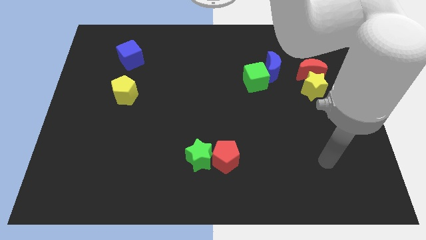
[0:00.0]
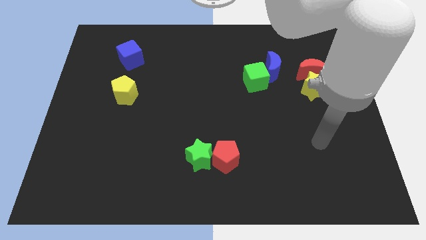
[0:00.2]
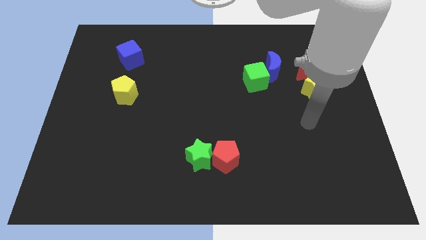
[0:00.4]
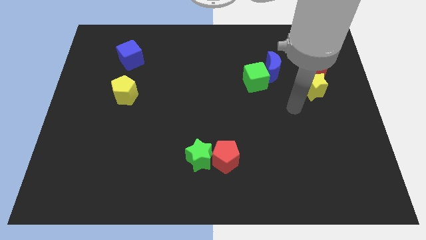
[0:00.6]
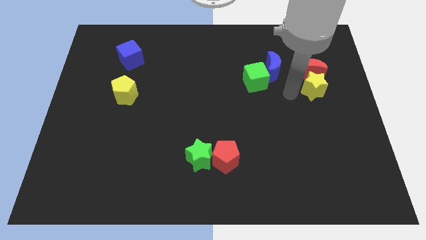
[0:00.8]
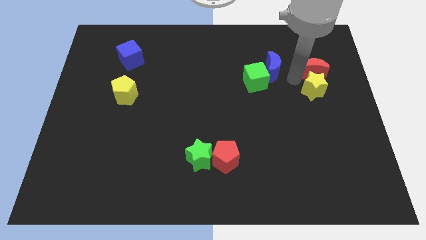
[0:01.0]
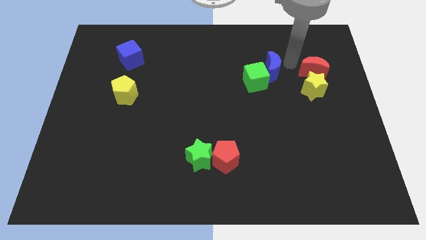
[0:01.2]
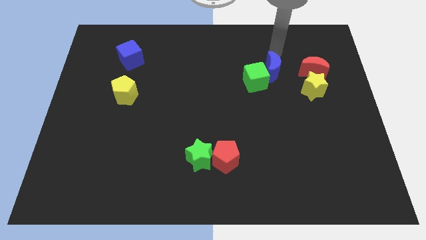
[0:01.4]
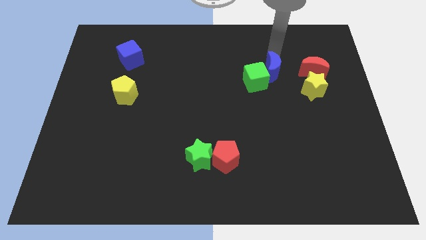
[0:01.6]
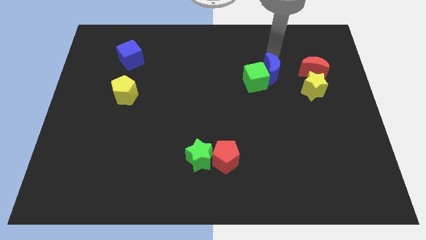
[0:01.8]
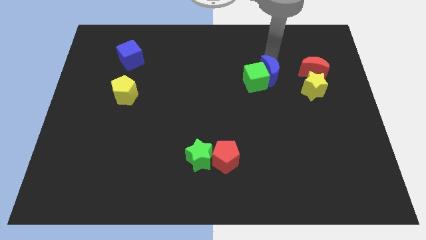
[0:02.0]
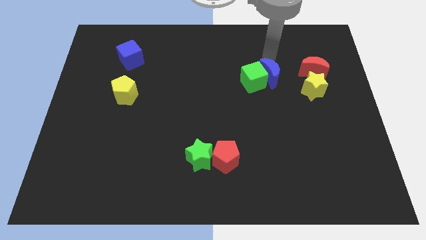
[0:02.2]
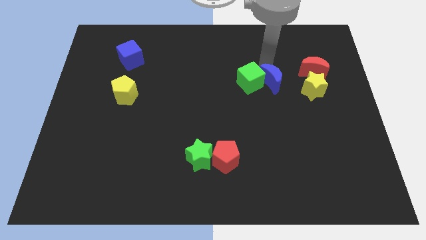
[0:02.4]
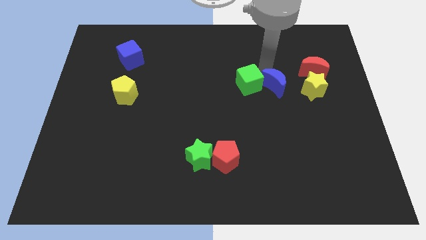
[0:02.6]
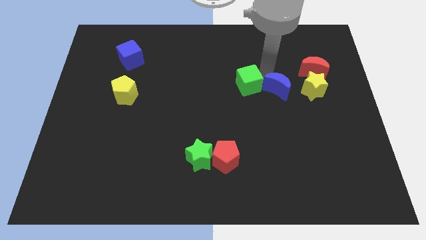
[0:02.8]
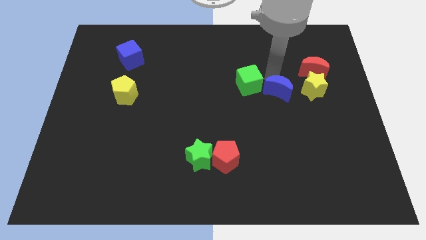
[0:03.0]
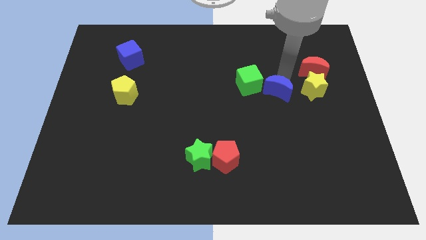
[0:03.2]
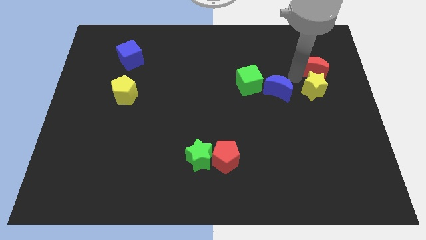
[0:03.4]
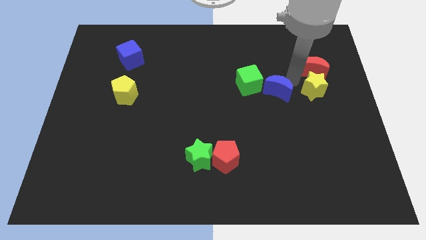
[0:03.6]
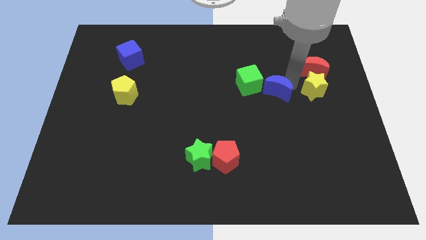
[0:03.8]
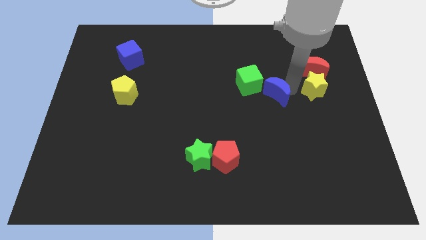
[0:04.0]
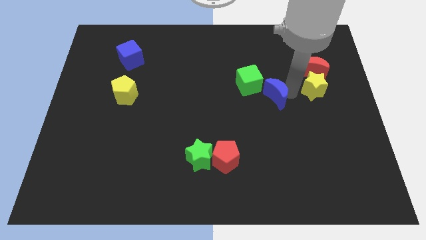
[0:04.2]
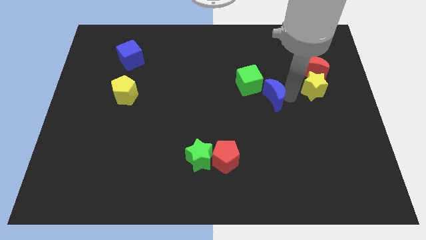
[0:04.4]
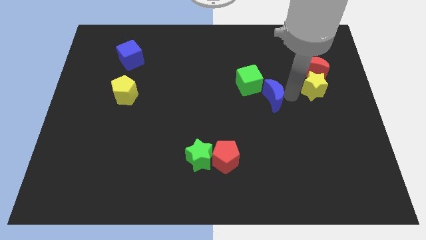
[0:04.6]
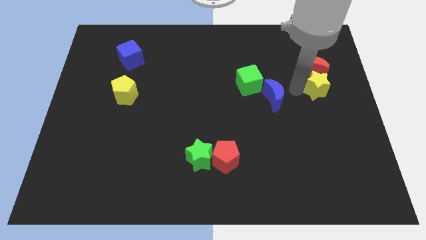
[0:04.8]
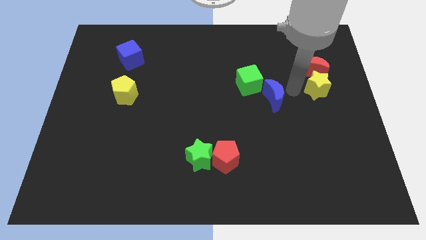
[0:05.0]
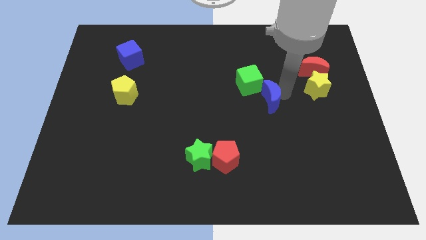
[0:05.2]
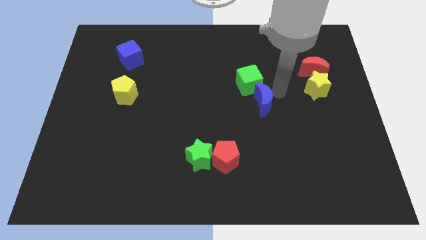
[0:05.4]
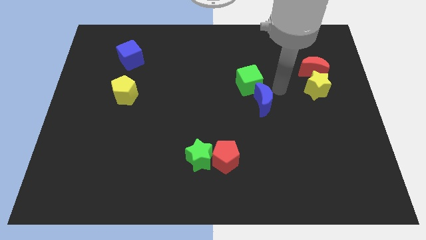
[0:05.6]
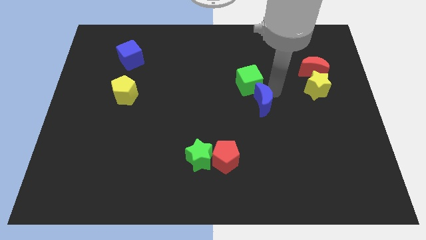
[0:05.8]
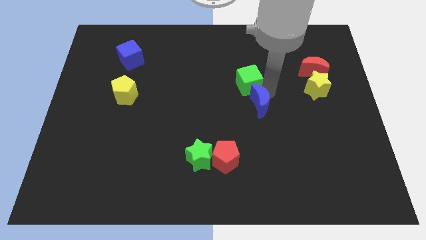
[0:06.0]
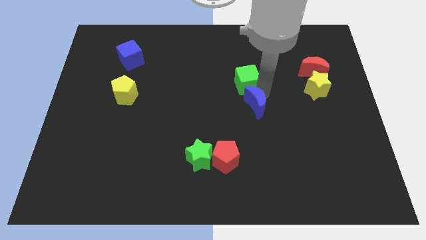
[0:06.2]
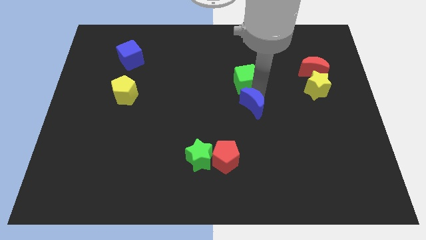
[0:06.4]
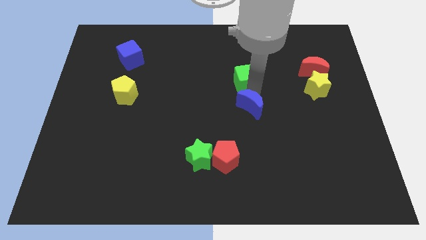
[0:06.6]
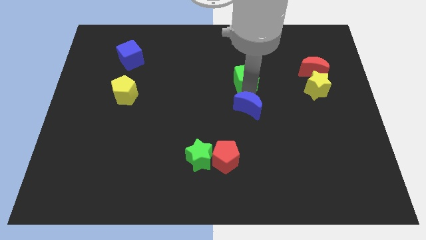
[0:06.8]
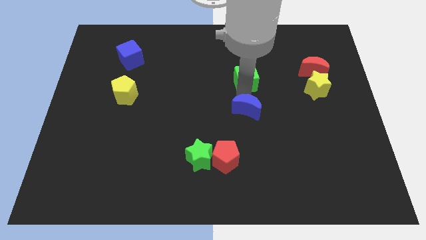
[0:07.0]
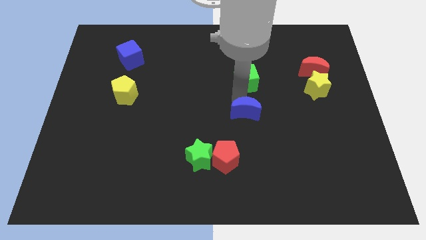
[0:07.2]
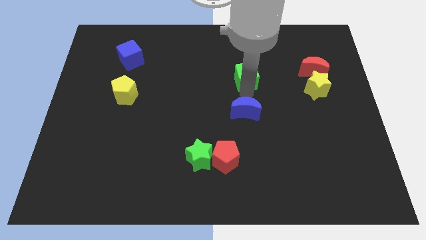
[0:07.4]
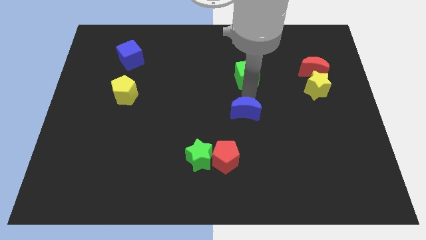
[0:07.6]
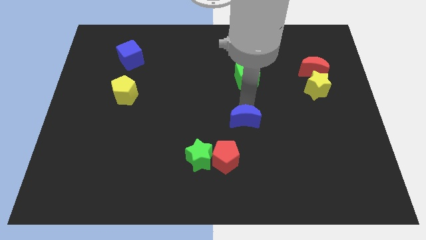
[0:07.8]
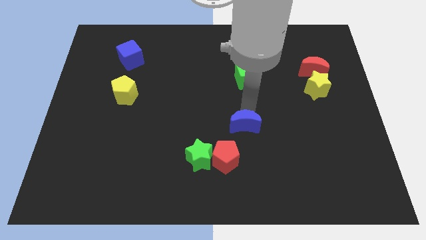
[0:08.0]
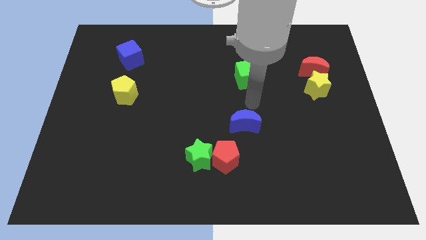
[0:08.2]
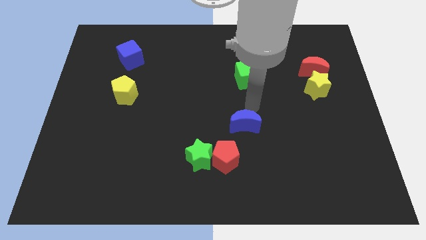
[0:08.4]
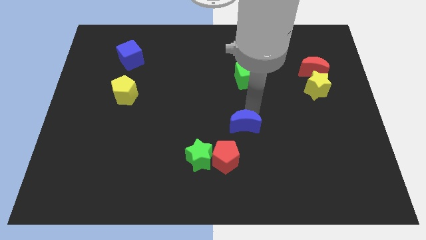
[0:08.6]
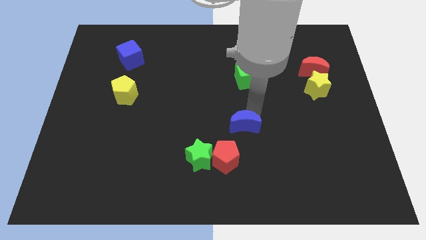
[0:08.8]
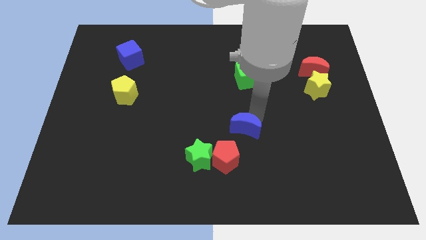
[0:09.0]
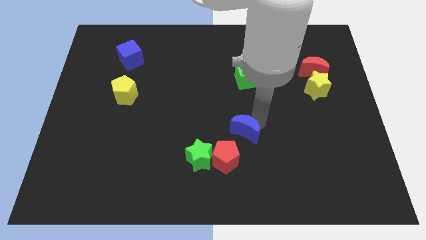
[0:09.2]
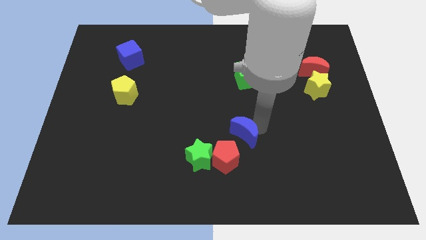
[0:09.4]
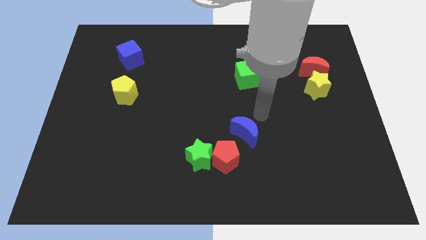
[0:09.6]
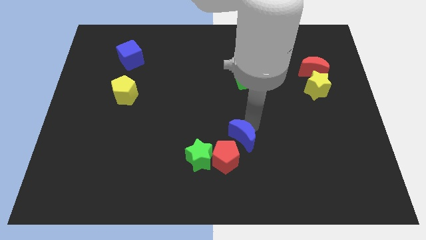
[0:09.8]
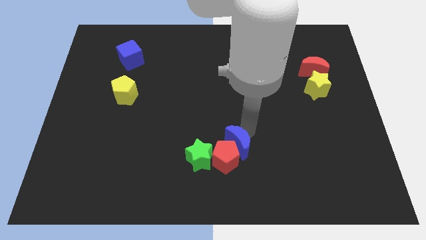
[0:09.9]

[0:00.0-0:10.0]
put the blue moon towards the red pentagon

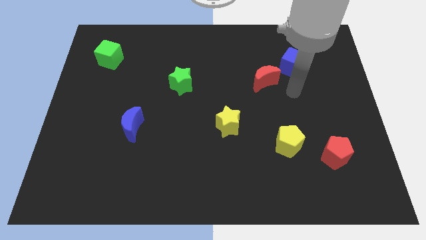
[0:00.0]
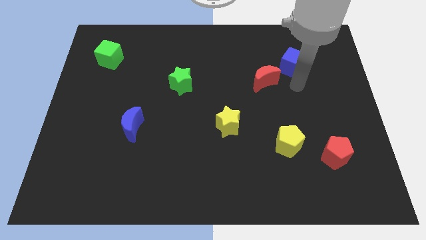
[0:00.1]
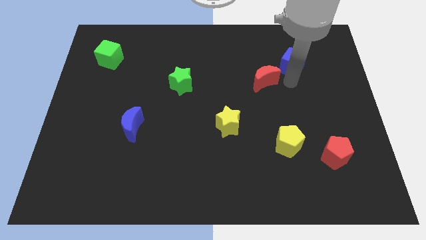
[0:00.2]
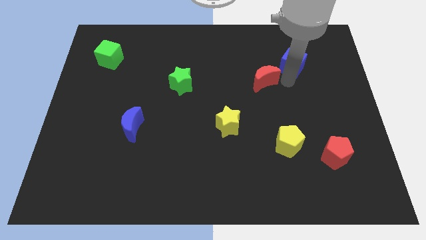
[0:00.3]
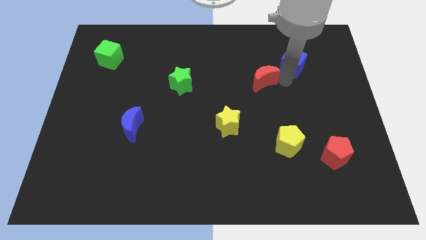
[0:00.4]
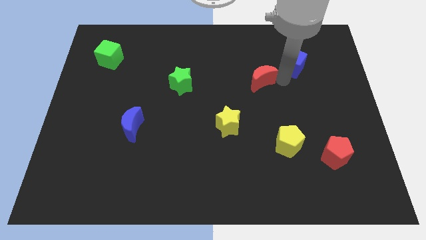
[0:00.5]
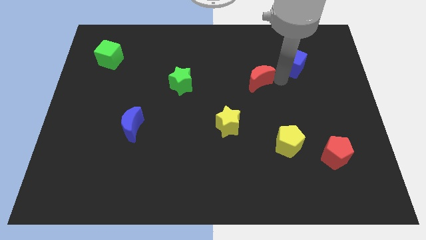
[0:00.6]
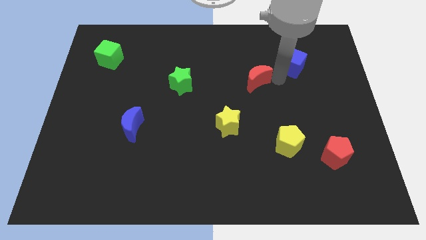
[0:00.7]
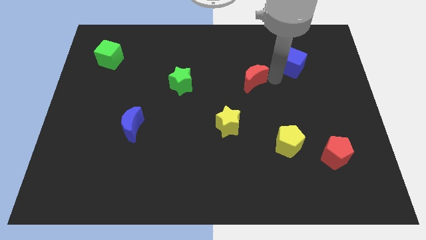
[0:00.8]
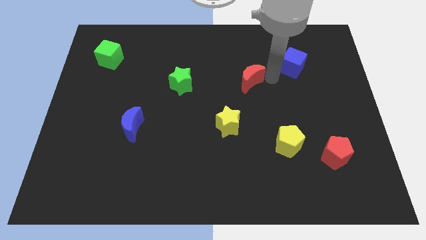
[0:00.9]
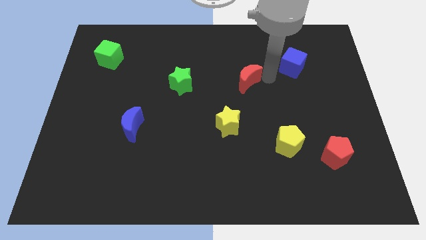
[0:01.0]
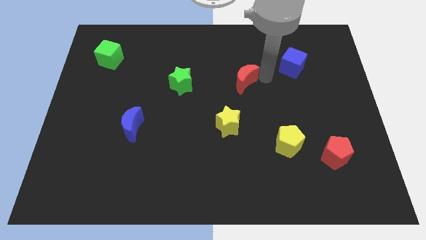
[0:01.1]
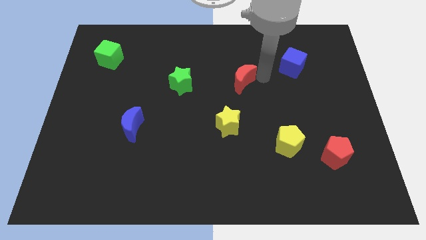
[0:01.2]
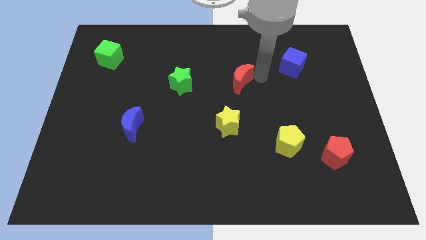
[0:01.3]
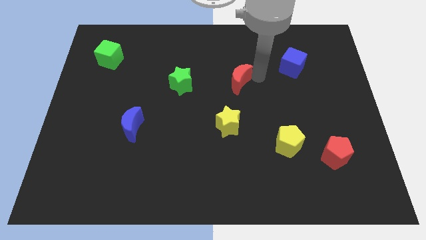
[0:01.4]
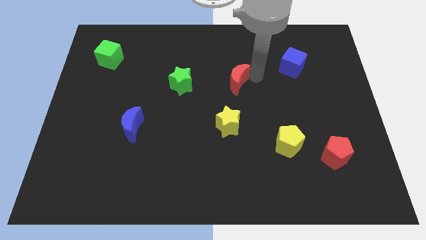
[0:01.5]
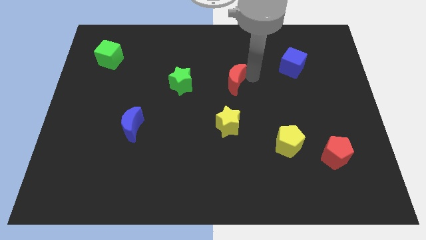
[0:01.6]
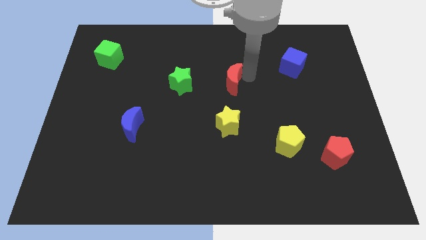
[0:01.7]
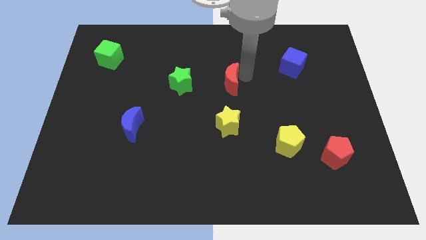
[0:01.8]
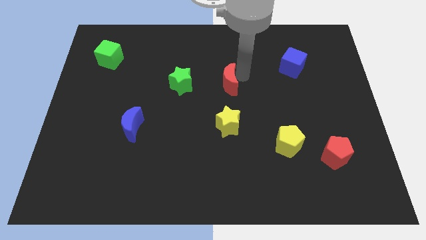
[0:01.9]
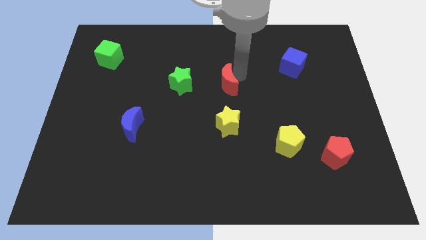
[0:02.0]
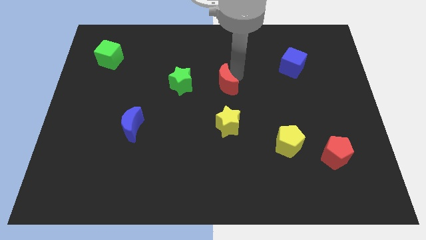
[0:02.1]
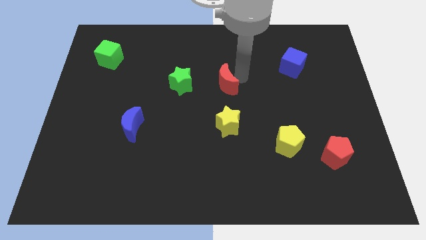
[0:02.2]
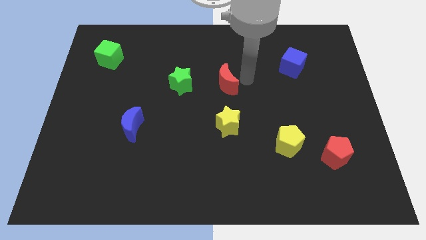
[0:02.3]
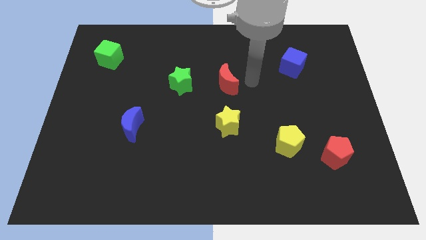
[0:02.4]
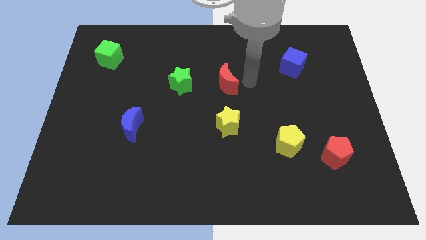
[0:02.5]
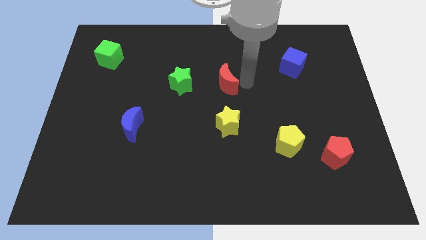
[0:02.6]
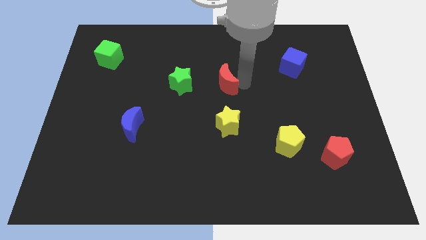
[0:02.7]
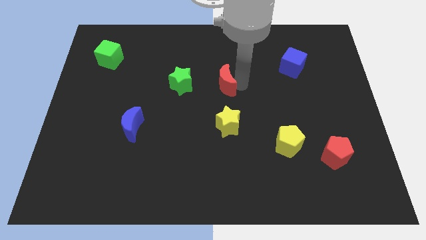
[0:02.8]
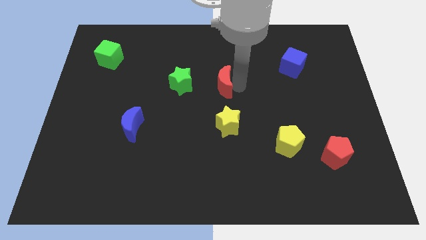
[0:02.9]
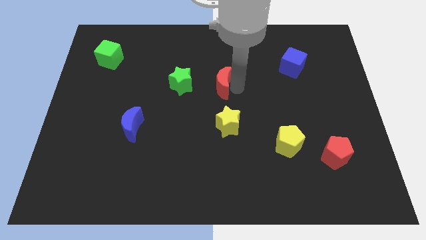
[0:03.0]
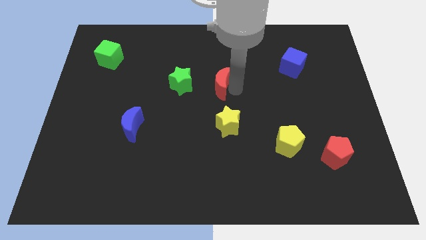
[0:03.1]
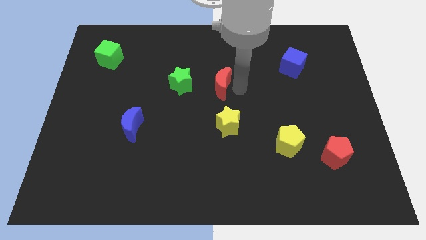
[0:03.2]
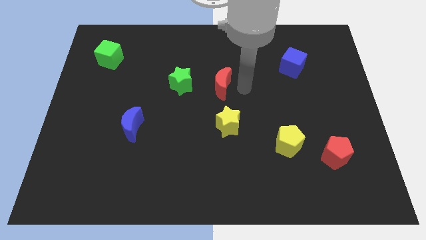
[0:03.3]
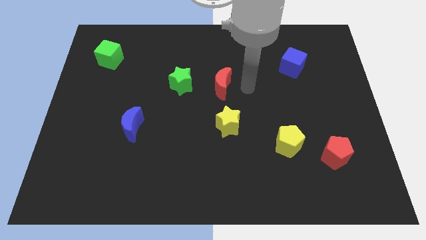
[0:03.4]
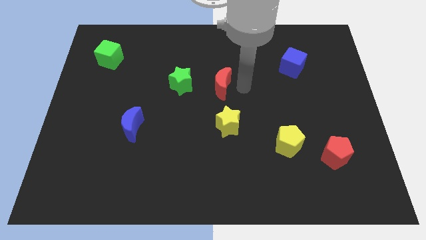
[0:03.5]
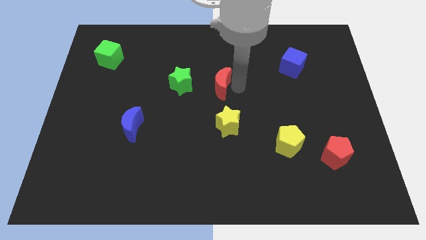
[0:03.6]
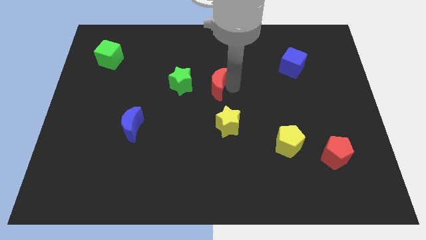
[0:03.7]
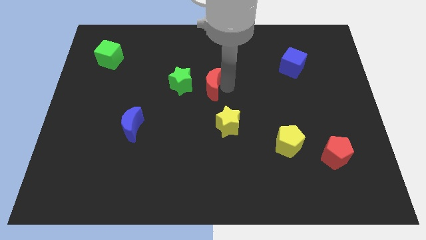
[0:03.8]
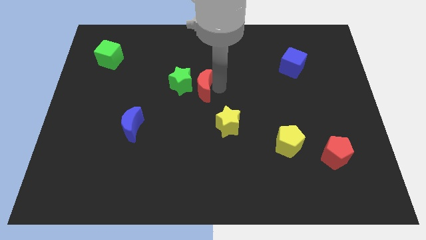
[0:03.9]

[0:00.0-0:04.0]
push the red moon towards the green star
